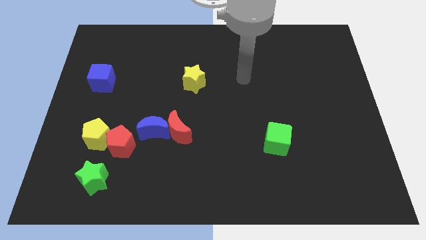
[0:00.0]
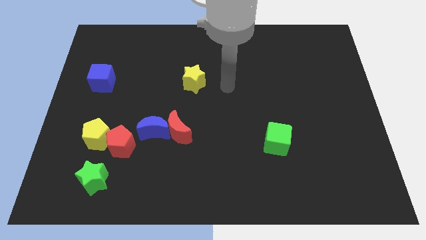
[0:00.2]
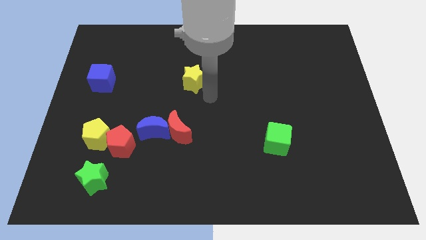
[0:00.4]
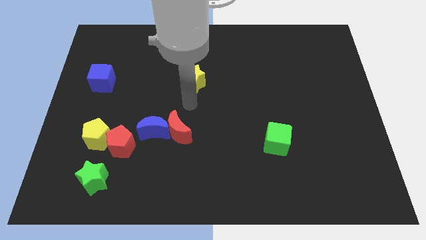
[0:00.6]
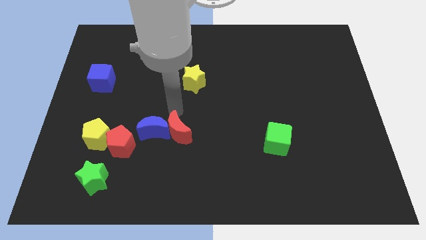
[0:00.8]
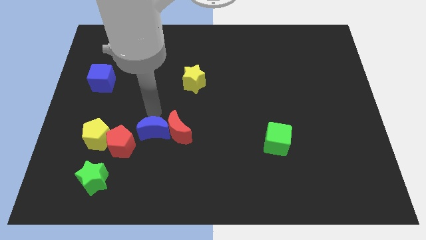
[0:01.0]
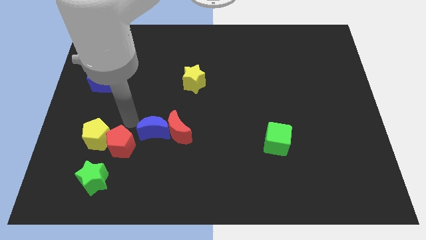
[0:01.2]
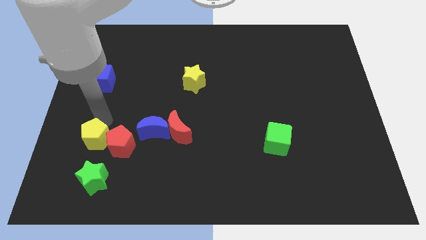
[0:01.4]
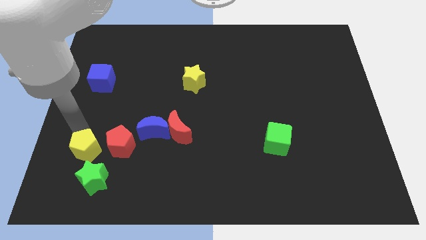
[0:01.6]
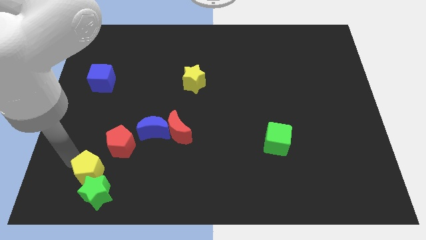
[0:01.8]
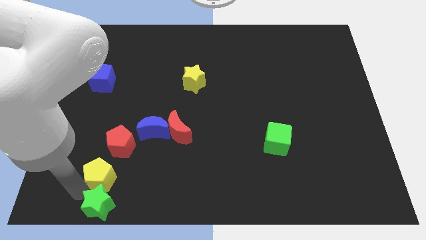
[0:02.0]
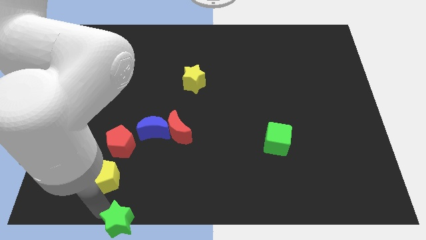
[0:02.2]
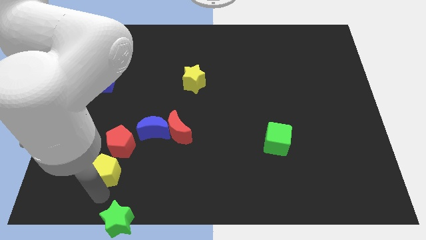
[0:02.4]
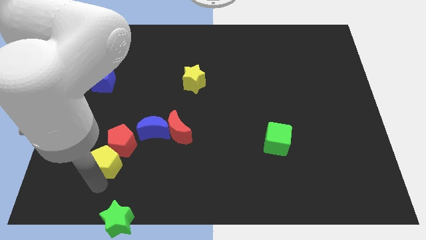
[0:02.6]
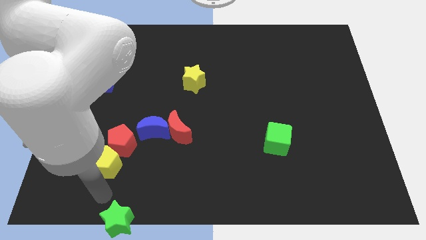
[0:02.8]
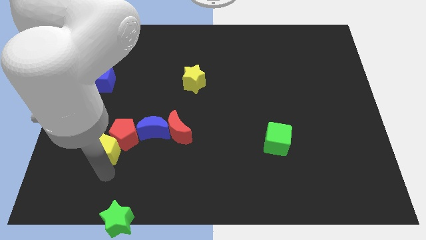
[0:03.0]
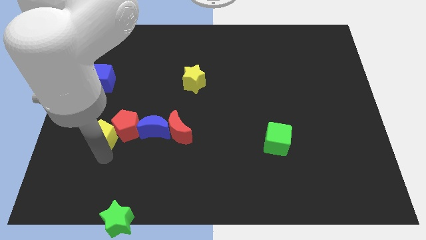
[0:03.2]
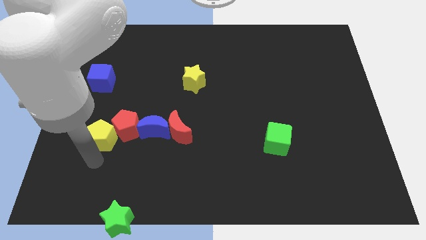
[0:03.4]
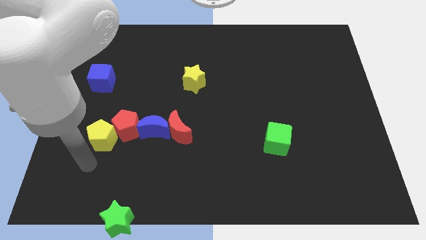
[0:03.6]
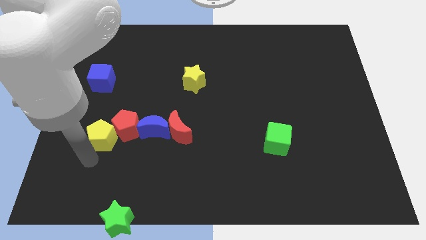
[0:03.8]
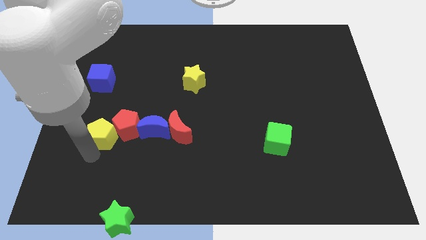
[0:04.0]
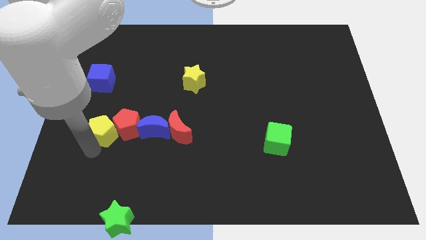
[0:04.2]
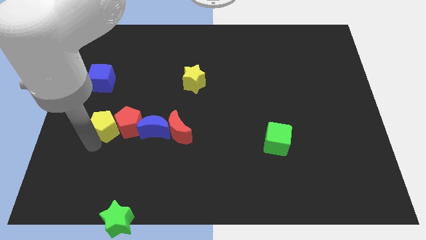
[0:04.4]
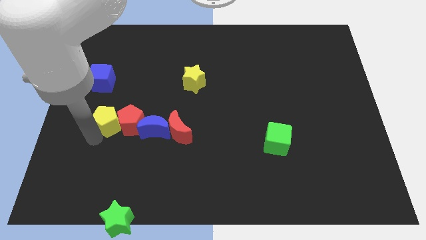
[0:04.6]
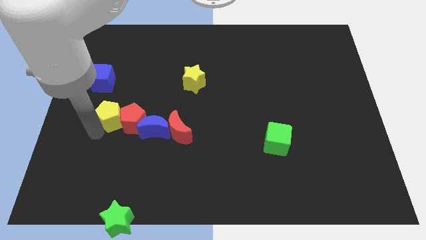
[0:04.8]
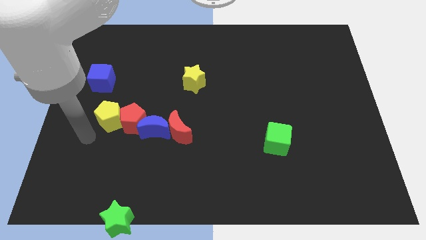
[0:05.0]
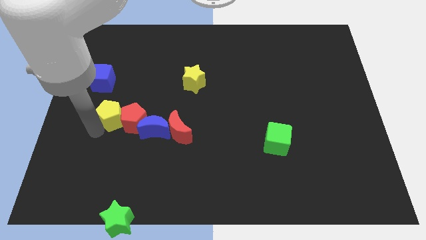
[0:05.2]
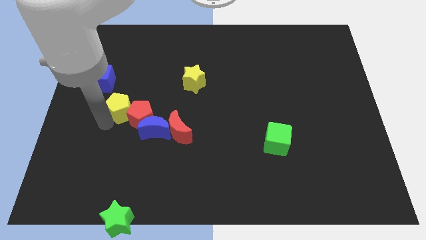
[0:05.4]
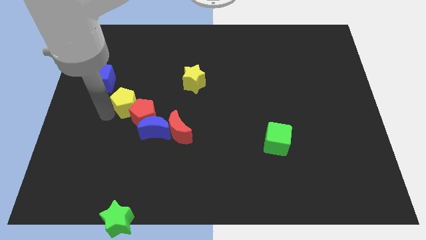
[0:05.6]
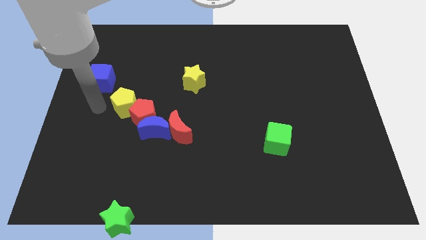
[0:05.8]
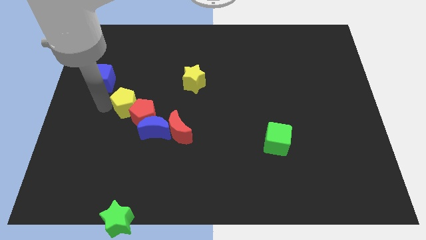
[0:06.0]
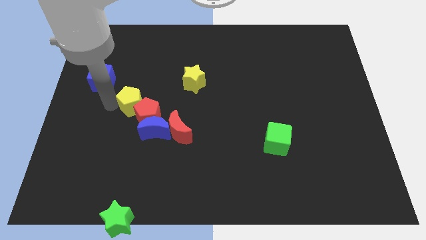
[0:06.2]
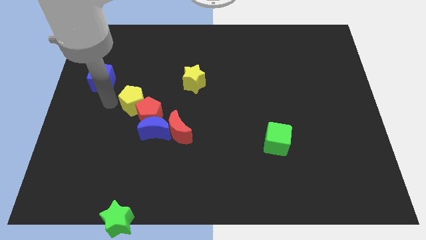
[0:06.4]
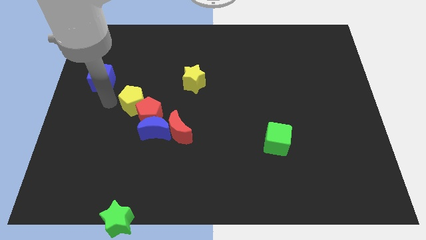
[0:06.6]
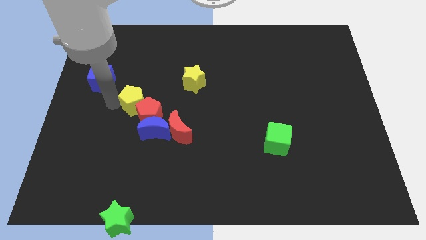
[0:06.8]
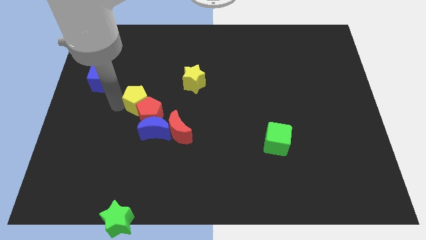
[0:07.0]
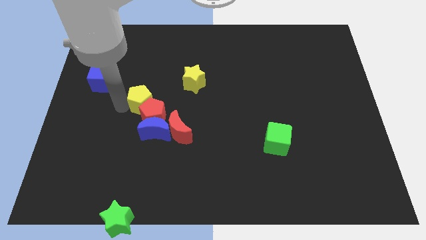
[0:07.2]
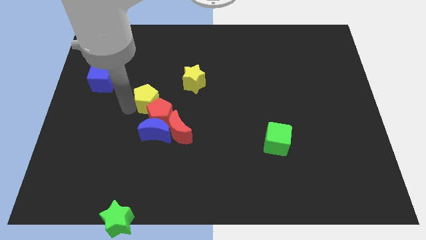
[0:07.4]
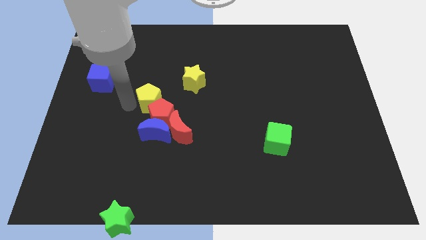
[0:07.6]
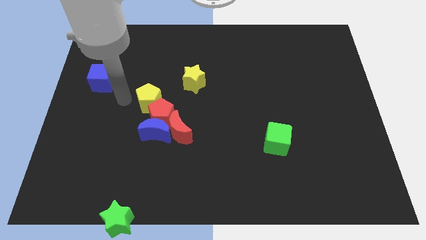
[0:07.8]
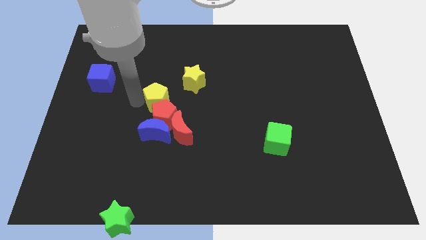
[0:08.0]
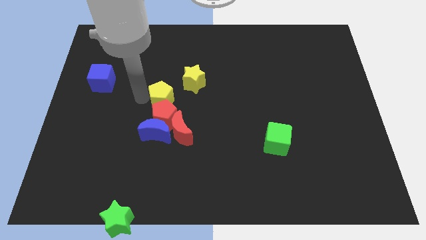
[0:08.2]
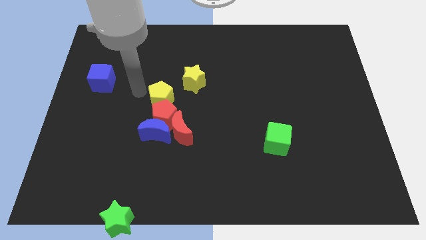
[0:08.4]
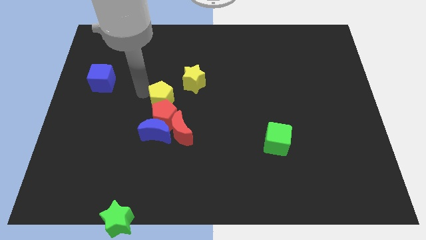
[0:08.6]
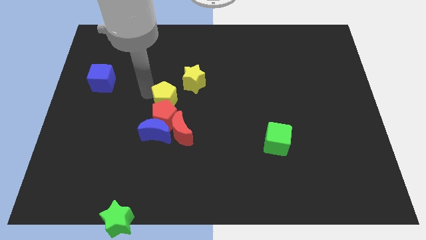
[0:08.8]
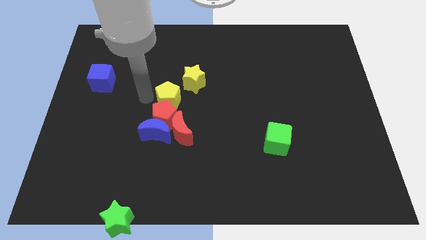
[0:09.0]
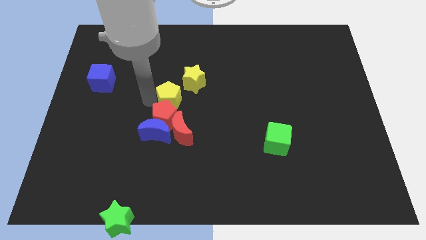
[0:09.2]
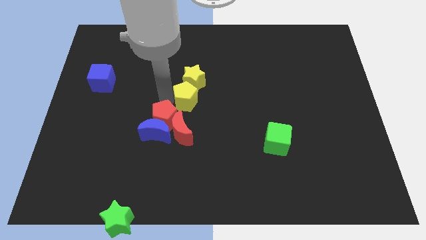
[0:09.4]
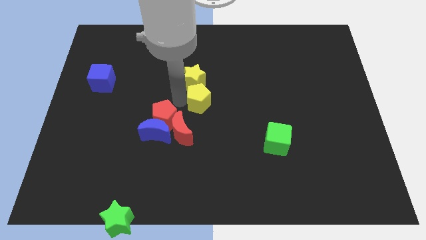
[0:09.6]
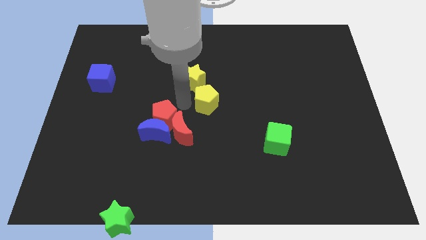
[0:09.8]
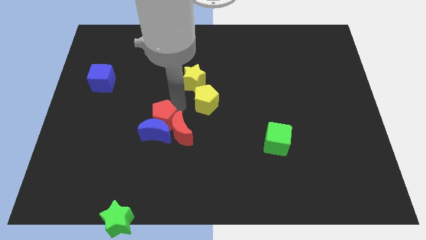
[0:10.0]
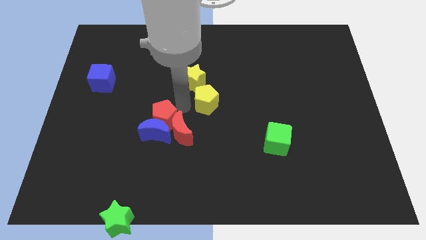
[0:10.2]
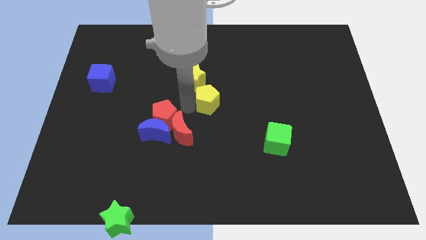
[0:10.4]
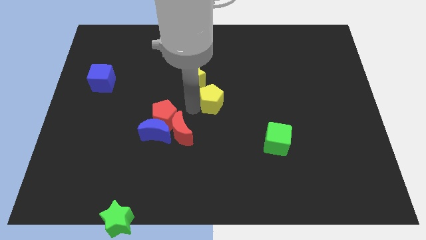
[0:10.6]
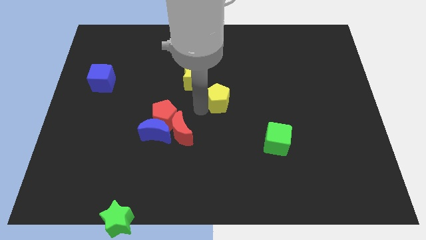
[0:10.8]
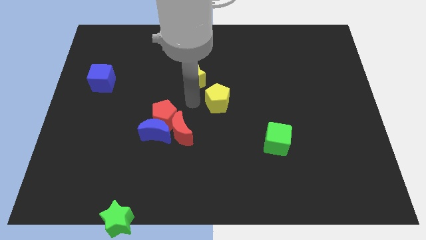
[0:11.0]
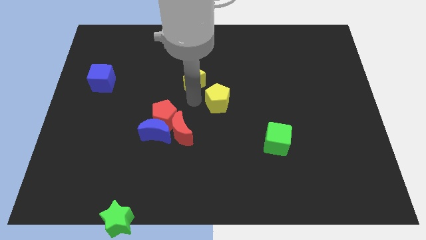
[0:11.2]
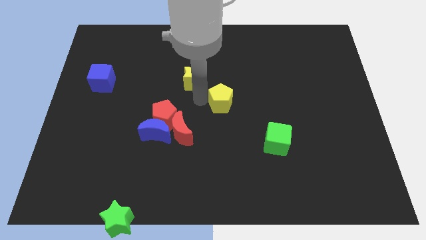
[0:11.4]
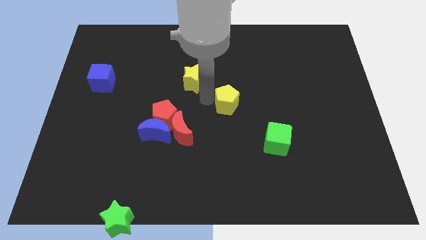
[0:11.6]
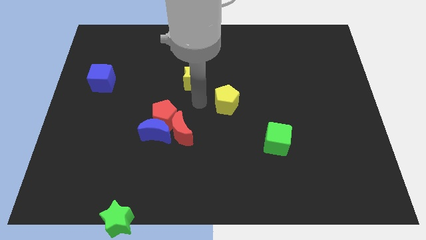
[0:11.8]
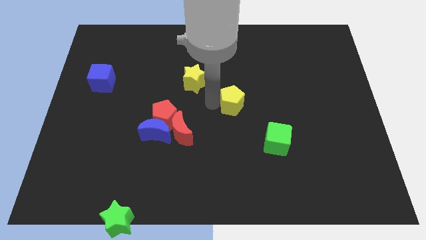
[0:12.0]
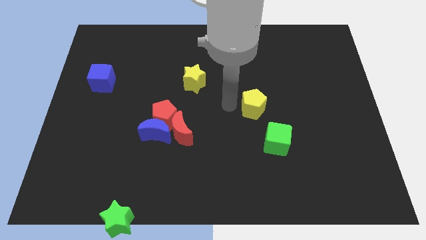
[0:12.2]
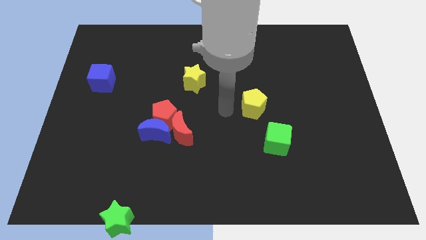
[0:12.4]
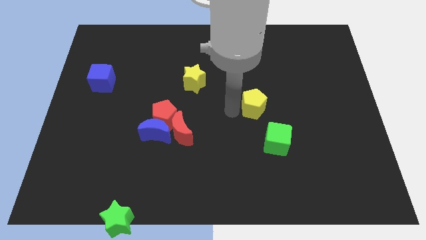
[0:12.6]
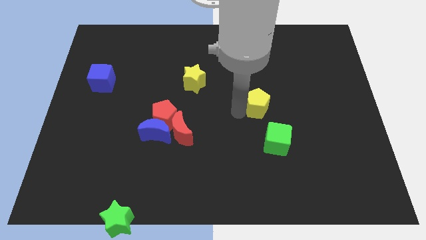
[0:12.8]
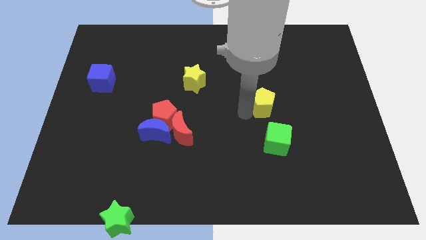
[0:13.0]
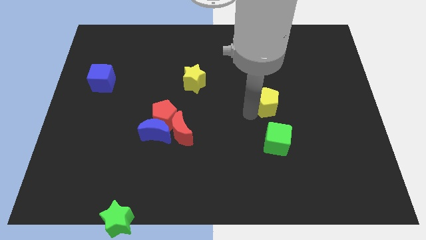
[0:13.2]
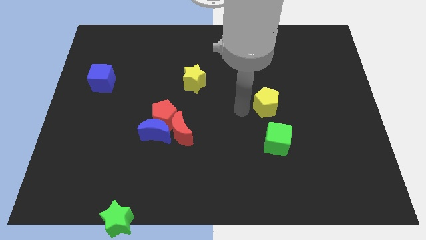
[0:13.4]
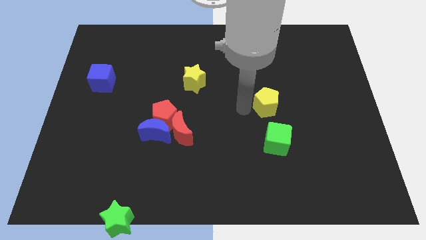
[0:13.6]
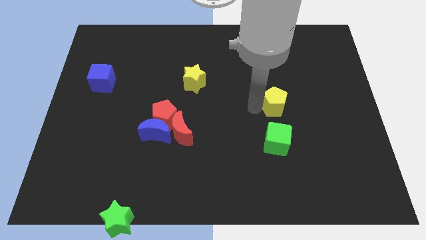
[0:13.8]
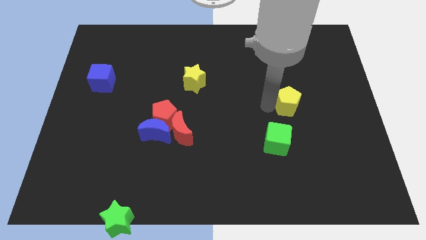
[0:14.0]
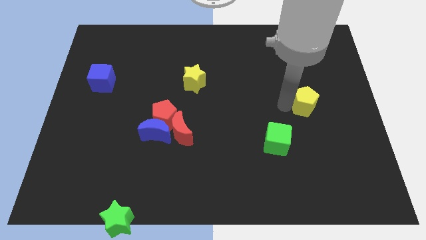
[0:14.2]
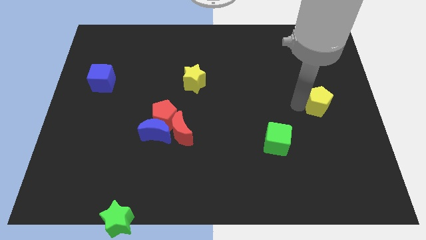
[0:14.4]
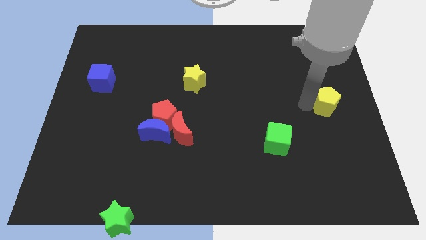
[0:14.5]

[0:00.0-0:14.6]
slide the yellow pentagon to the center right
